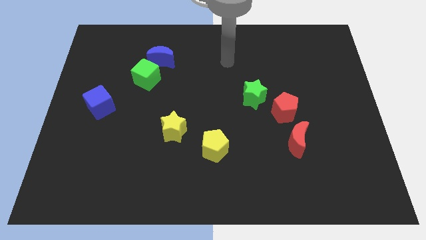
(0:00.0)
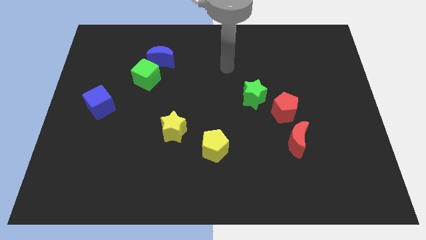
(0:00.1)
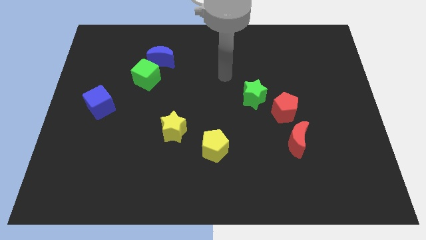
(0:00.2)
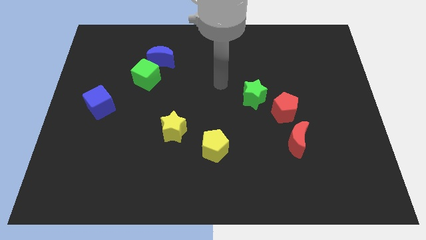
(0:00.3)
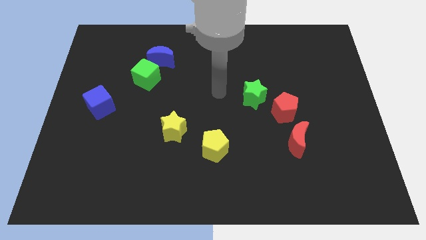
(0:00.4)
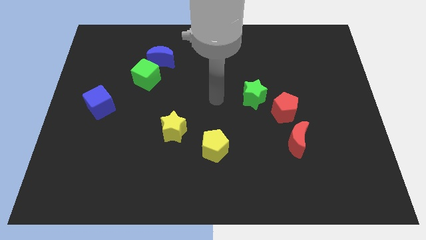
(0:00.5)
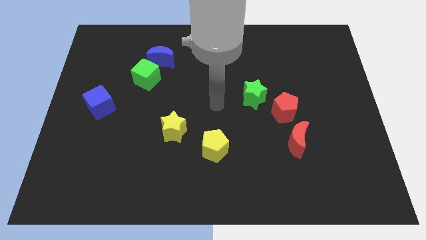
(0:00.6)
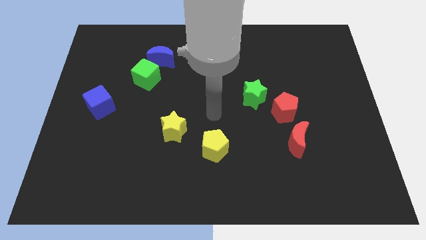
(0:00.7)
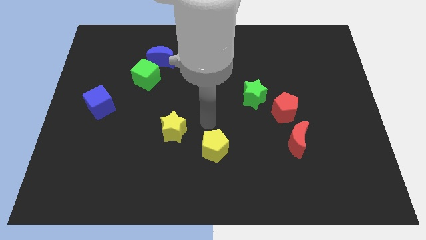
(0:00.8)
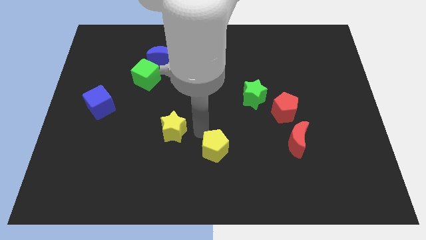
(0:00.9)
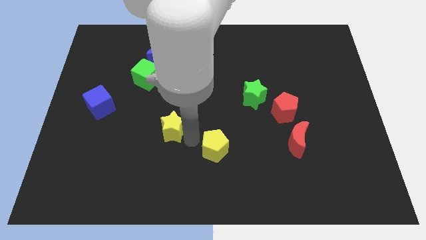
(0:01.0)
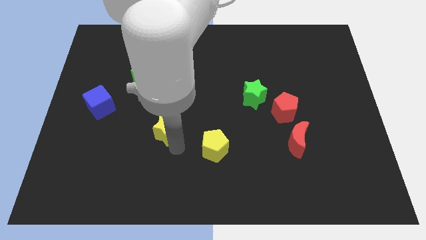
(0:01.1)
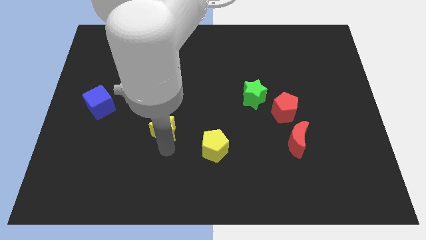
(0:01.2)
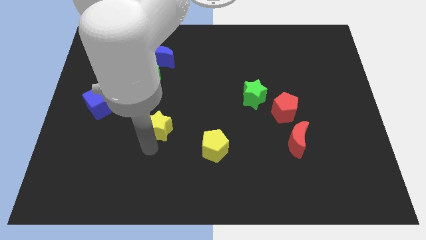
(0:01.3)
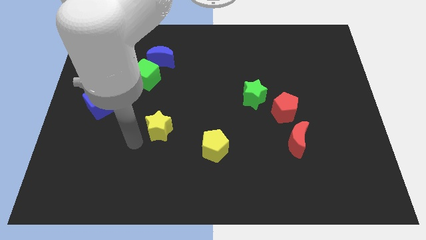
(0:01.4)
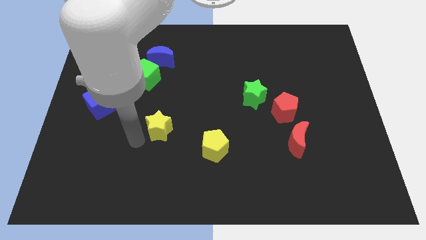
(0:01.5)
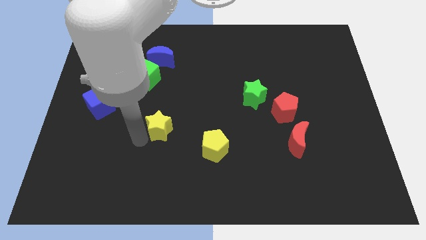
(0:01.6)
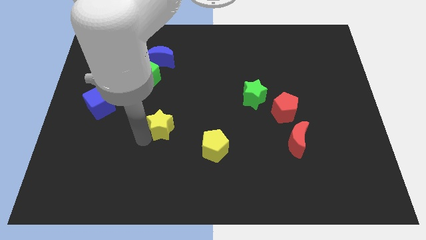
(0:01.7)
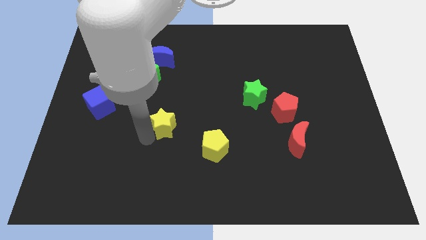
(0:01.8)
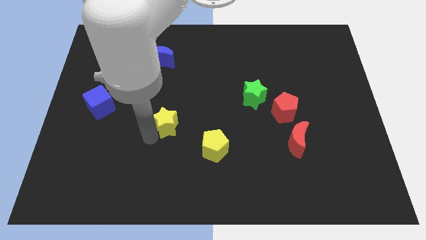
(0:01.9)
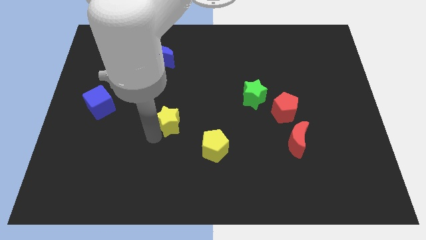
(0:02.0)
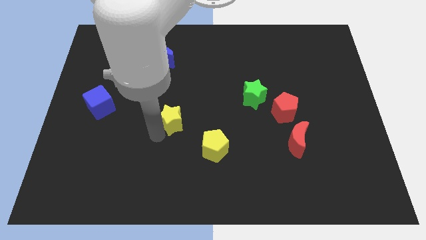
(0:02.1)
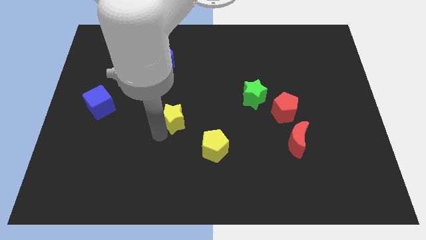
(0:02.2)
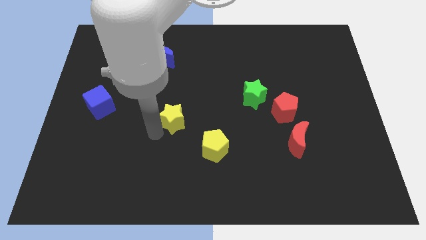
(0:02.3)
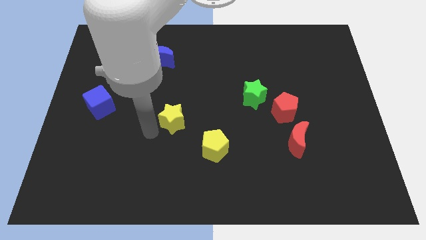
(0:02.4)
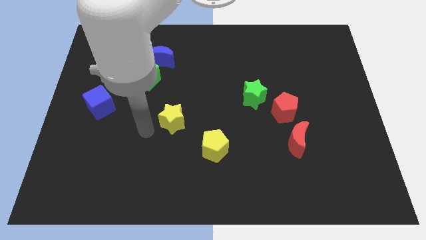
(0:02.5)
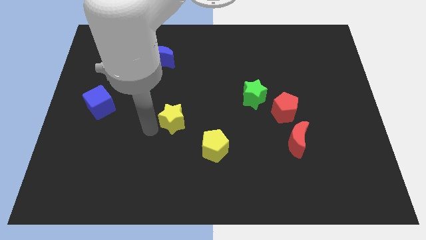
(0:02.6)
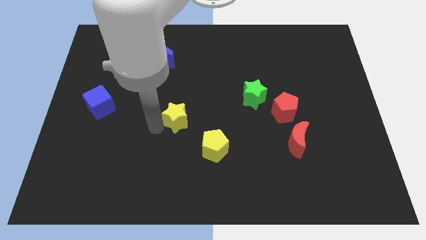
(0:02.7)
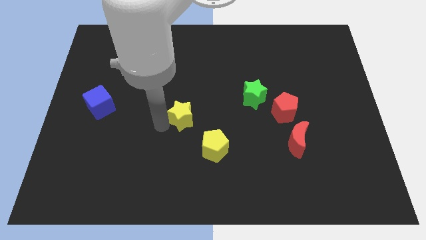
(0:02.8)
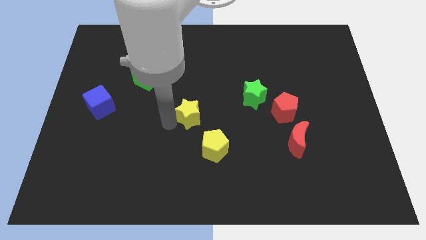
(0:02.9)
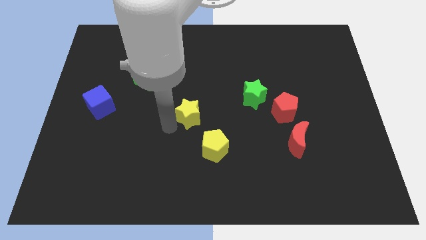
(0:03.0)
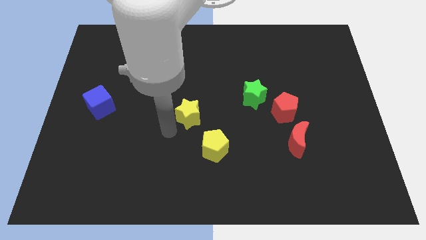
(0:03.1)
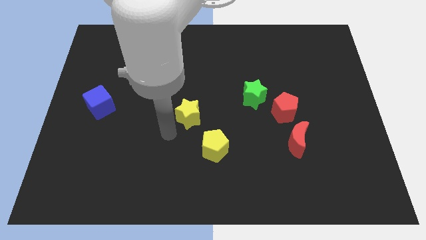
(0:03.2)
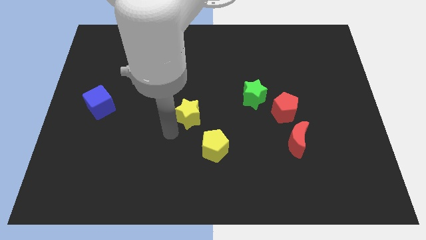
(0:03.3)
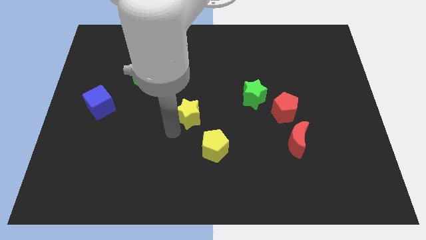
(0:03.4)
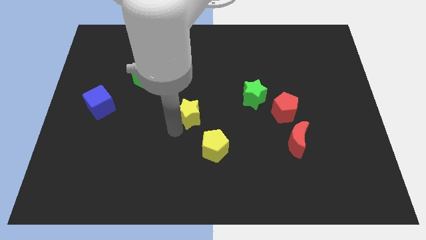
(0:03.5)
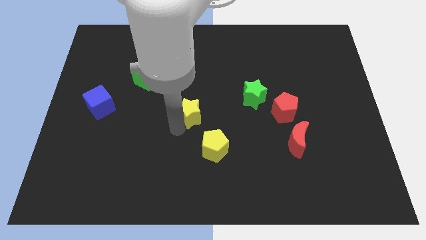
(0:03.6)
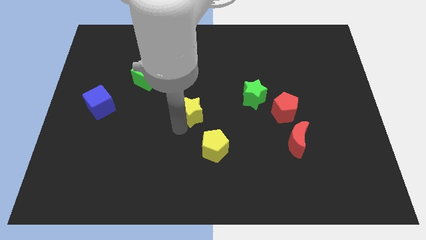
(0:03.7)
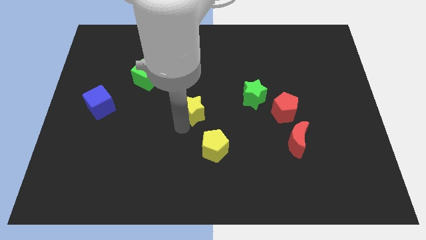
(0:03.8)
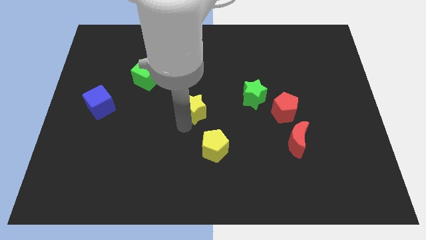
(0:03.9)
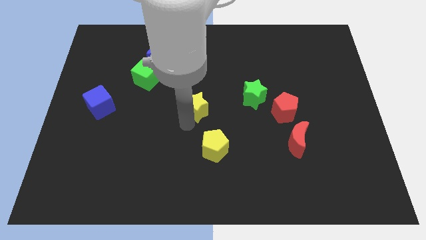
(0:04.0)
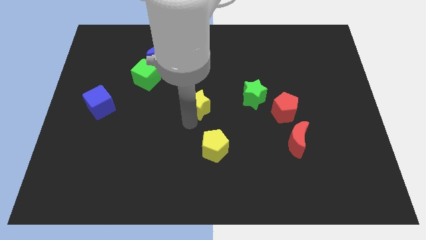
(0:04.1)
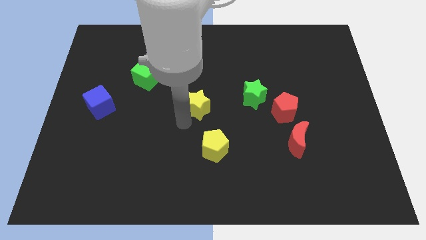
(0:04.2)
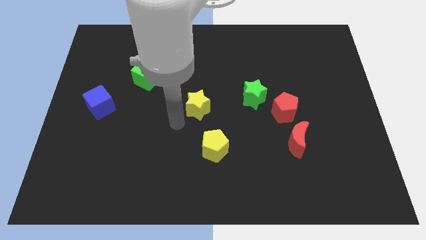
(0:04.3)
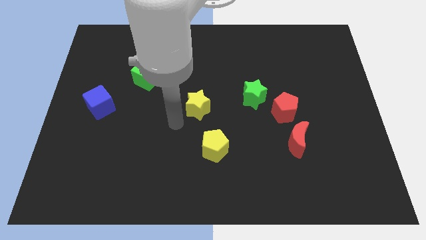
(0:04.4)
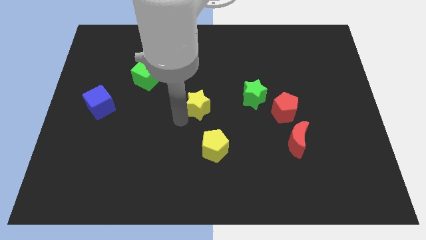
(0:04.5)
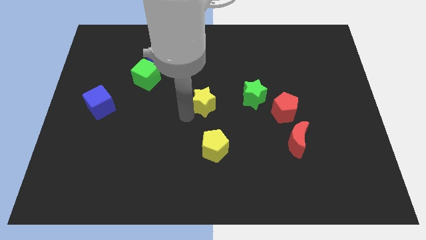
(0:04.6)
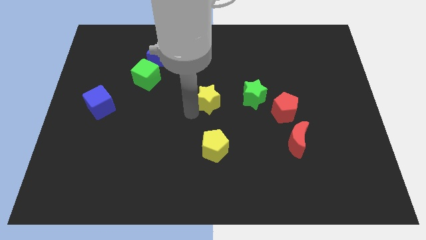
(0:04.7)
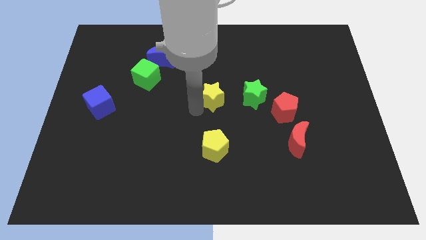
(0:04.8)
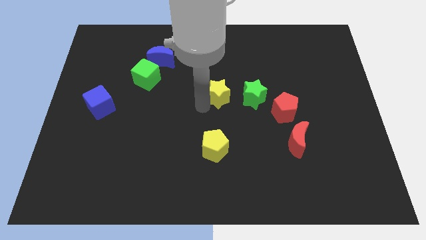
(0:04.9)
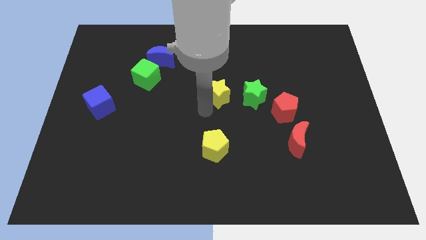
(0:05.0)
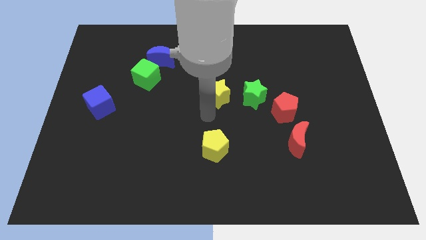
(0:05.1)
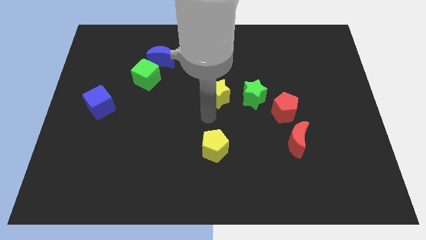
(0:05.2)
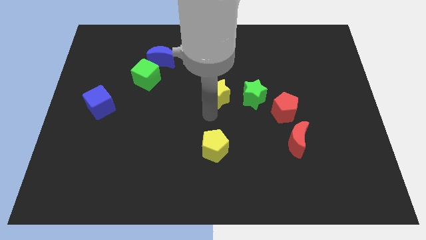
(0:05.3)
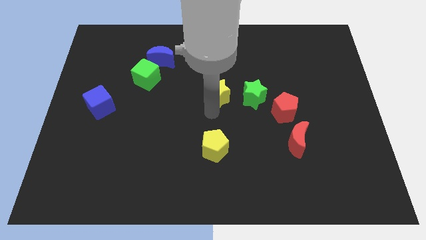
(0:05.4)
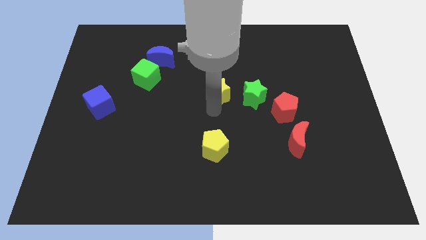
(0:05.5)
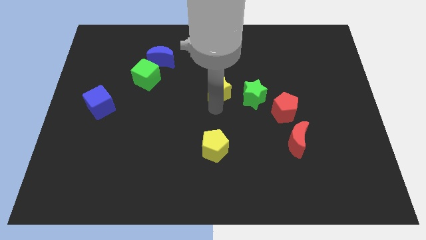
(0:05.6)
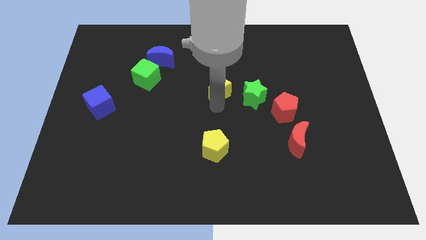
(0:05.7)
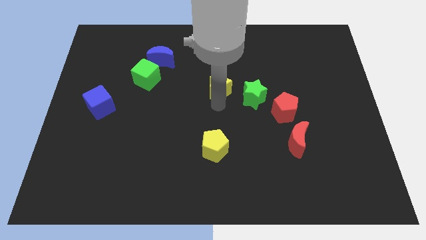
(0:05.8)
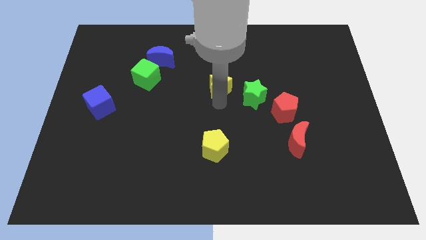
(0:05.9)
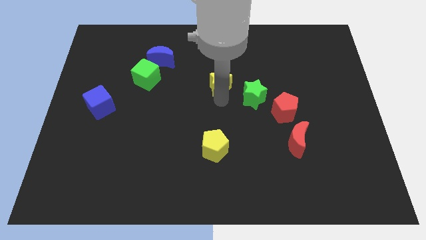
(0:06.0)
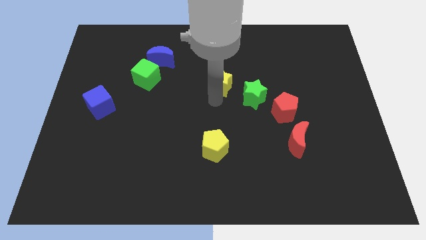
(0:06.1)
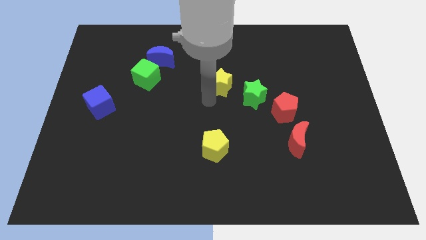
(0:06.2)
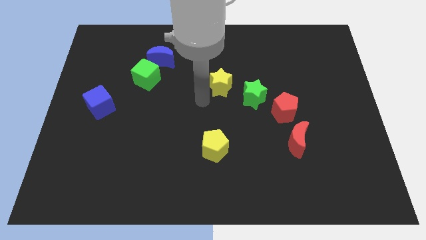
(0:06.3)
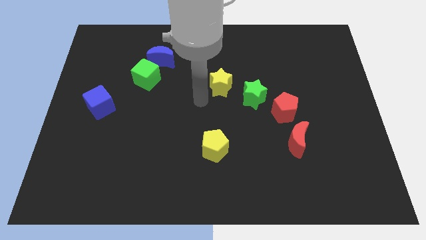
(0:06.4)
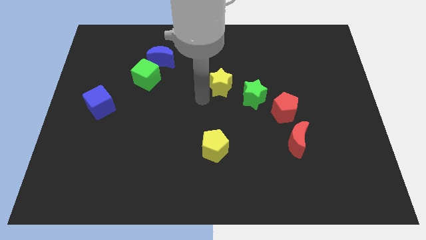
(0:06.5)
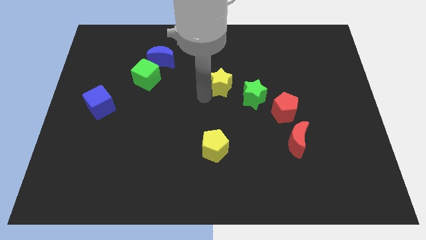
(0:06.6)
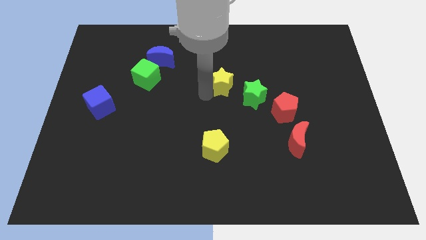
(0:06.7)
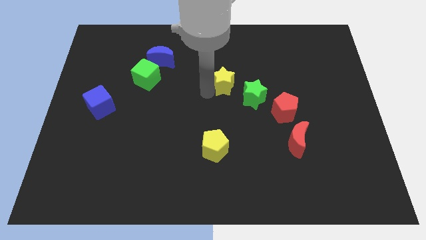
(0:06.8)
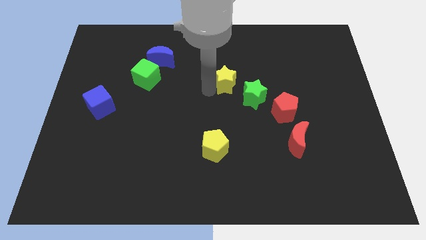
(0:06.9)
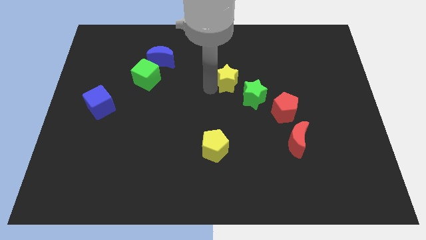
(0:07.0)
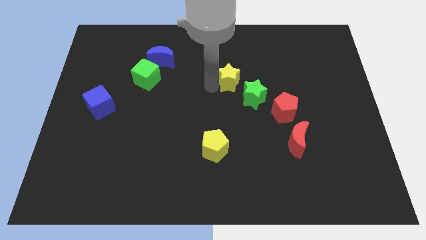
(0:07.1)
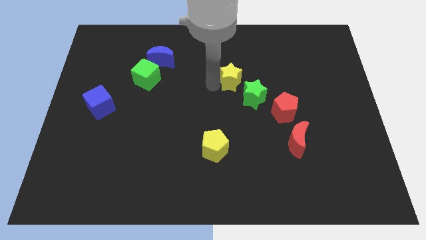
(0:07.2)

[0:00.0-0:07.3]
slide the yellow star diagonally up and to the right

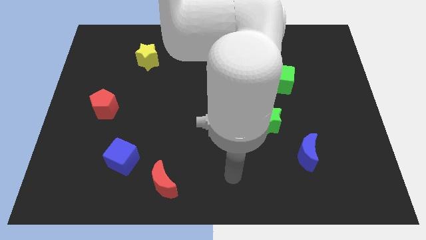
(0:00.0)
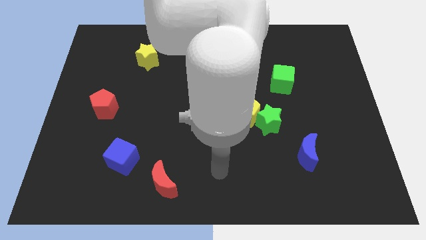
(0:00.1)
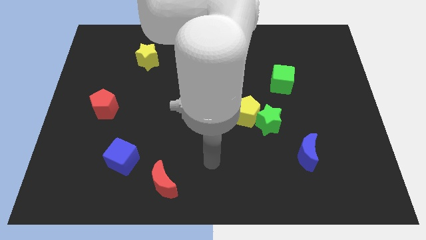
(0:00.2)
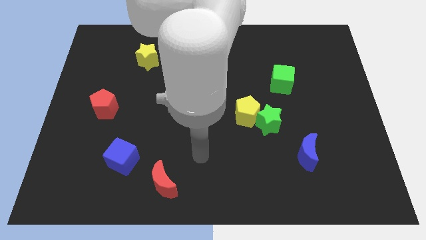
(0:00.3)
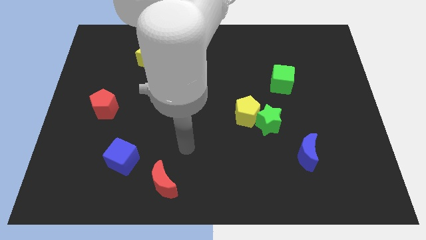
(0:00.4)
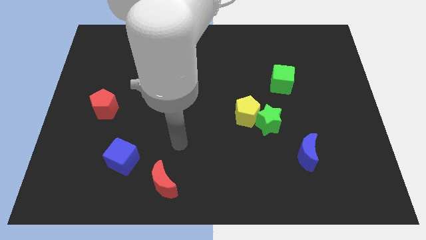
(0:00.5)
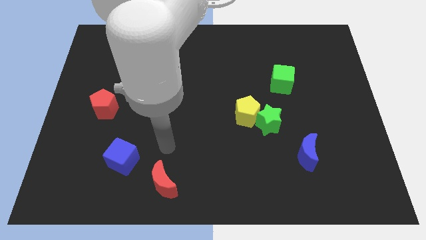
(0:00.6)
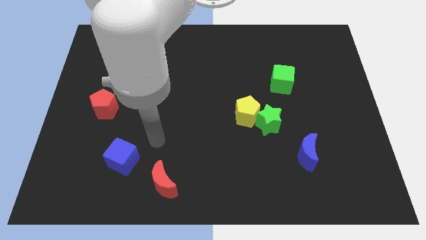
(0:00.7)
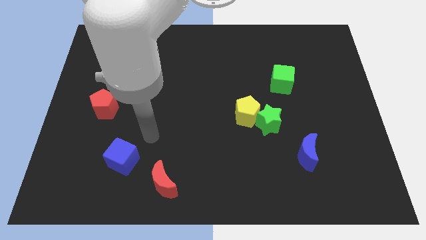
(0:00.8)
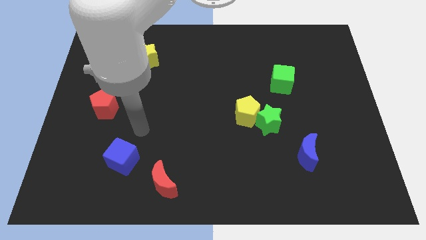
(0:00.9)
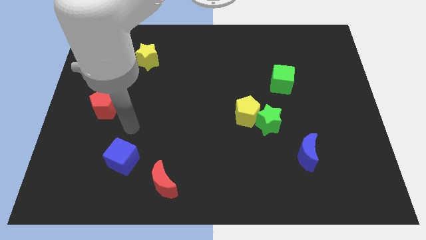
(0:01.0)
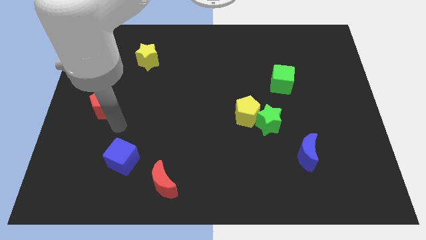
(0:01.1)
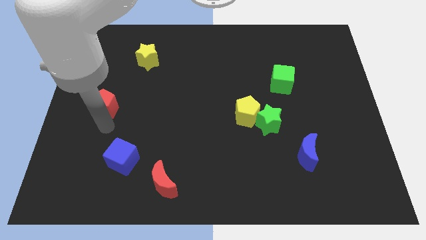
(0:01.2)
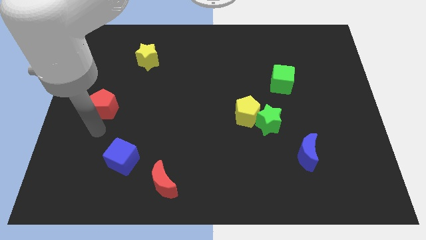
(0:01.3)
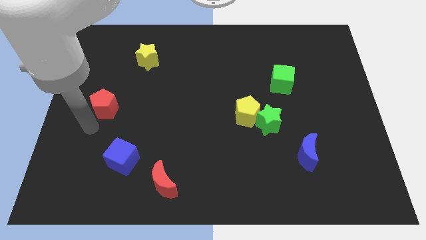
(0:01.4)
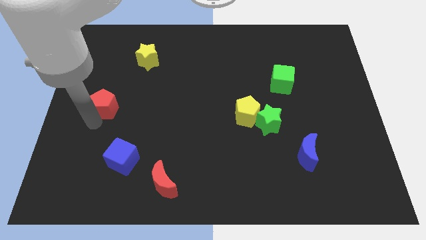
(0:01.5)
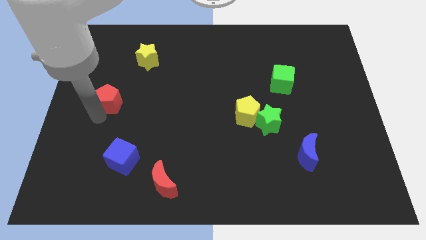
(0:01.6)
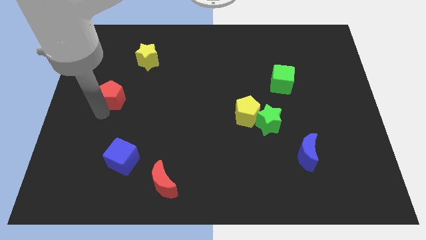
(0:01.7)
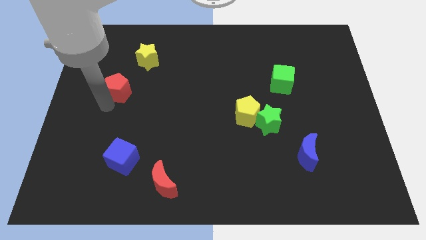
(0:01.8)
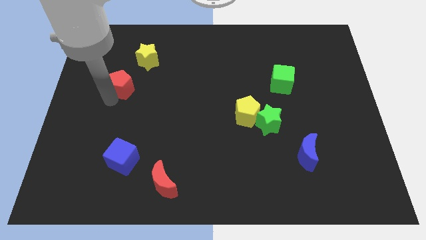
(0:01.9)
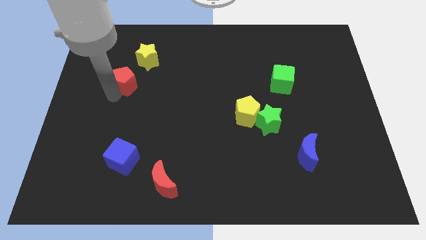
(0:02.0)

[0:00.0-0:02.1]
slide the red pentagon up and right slightly
